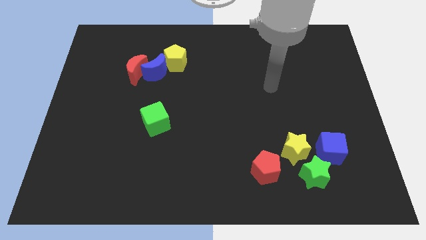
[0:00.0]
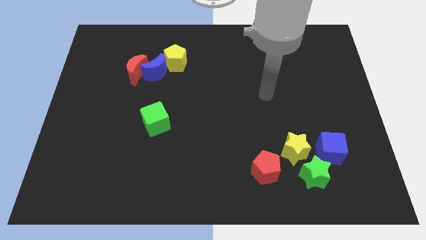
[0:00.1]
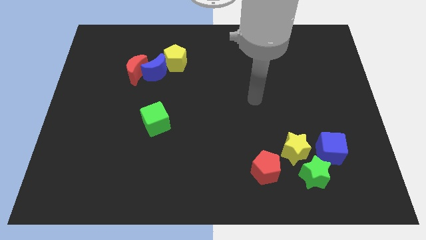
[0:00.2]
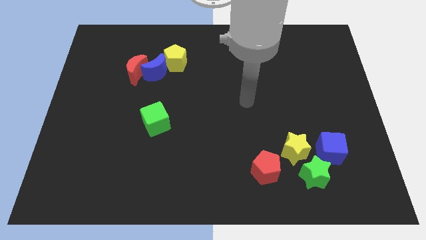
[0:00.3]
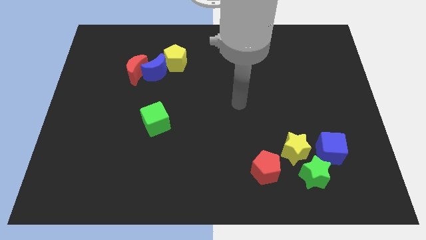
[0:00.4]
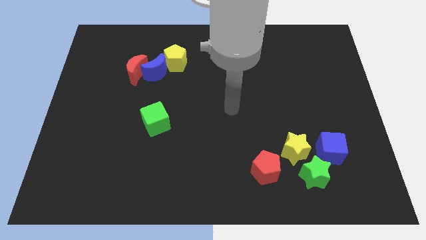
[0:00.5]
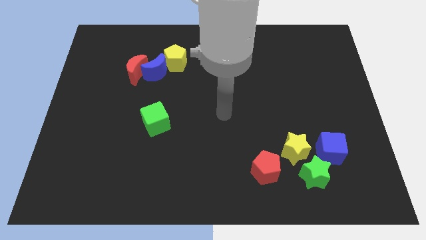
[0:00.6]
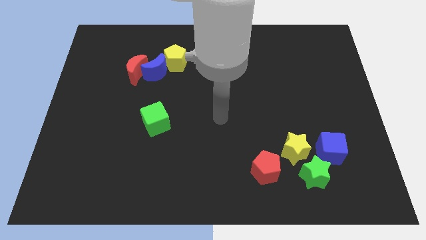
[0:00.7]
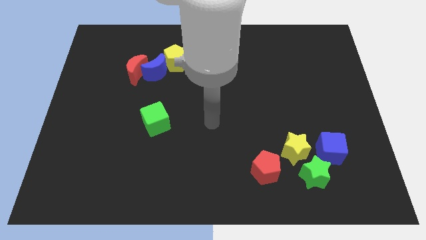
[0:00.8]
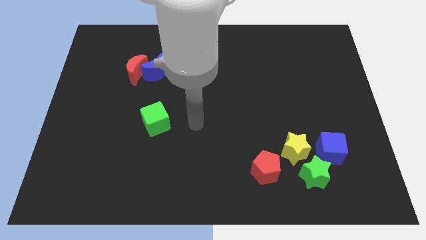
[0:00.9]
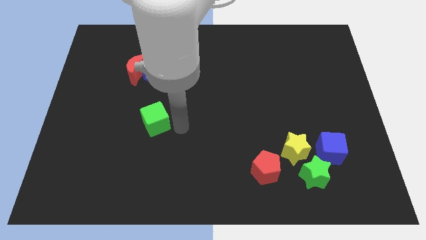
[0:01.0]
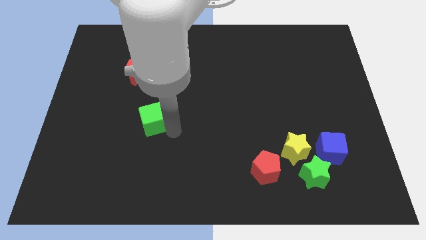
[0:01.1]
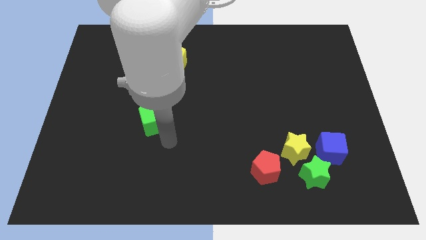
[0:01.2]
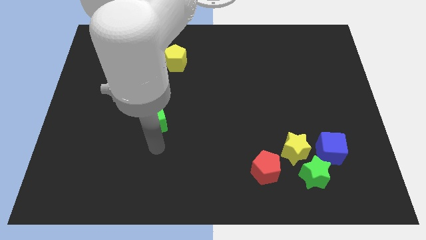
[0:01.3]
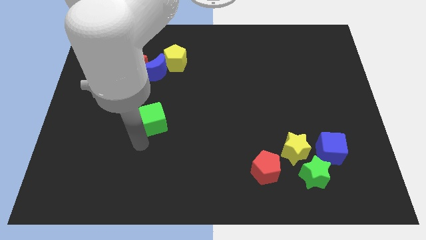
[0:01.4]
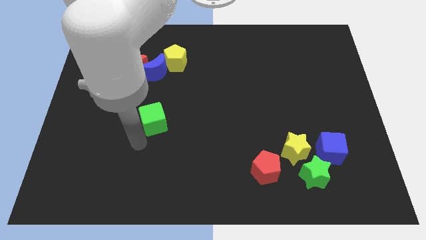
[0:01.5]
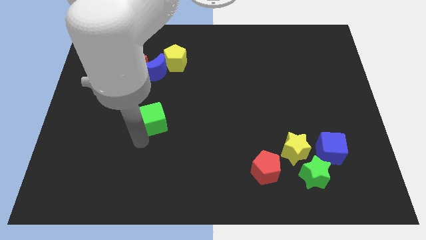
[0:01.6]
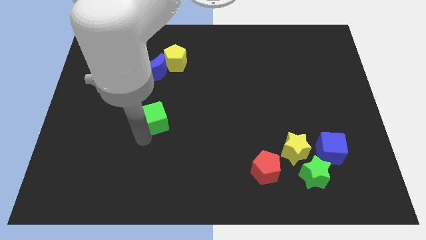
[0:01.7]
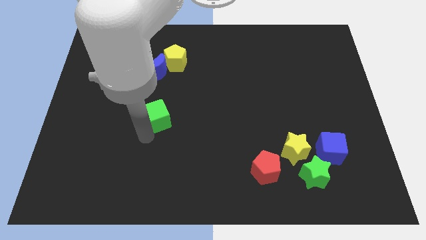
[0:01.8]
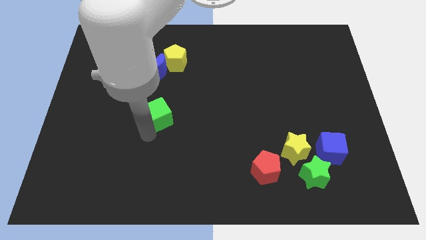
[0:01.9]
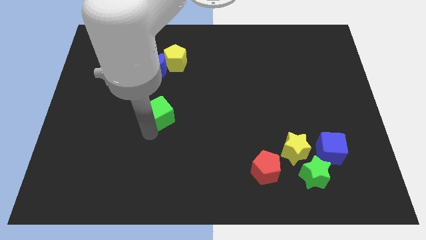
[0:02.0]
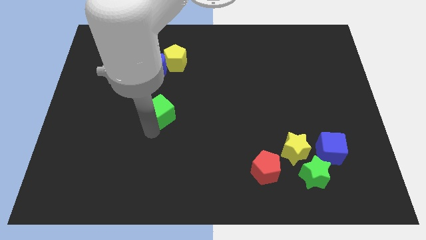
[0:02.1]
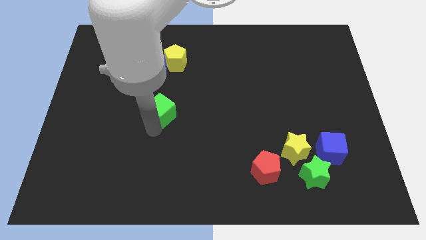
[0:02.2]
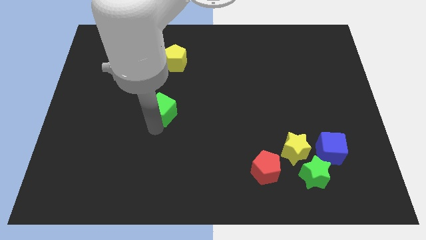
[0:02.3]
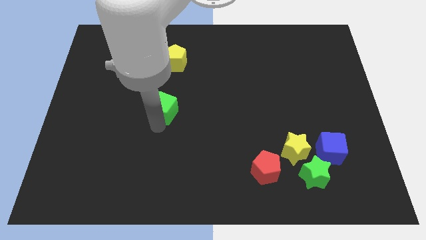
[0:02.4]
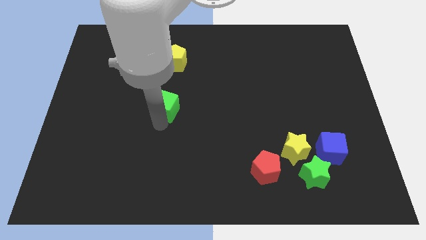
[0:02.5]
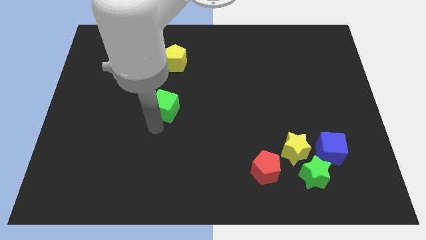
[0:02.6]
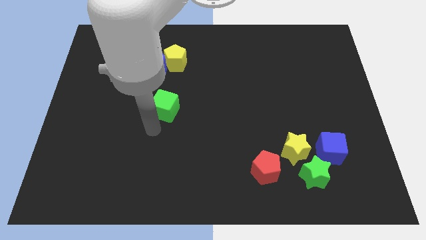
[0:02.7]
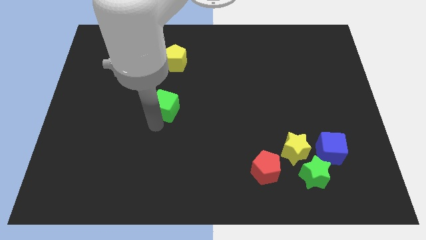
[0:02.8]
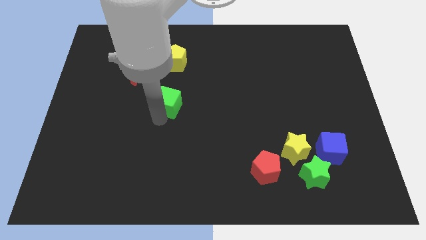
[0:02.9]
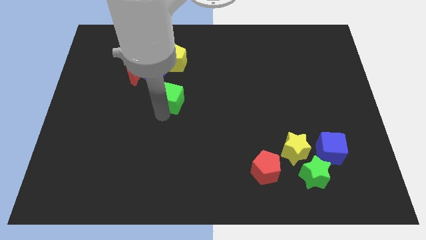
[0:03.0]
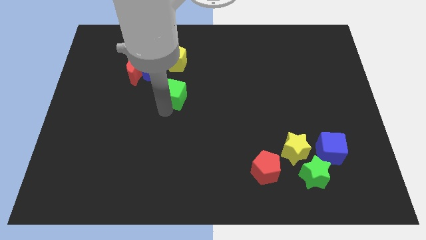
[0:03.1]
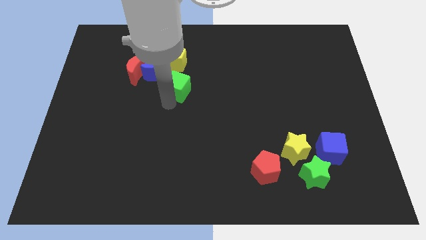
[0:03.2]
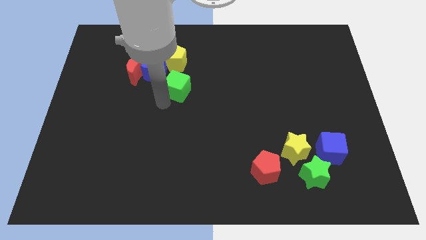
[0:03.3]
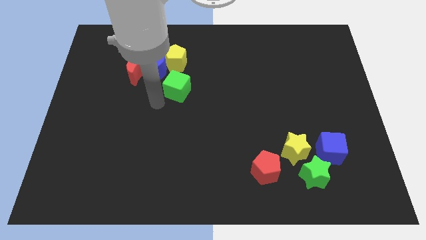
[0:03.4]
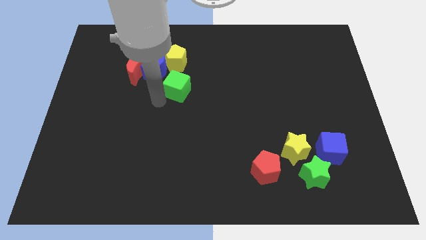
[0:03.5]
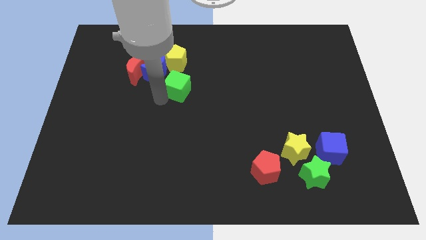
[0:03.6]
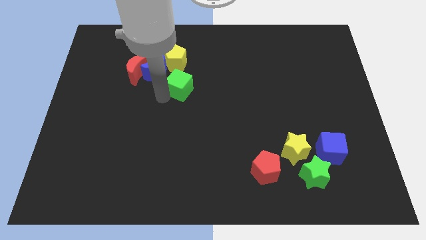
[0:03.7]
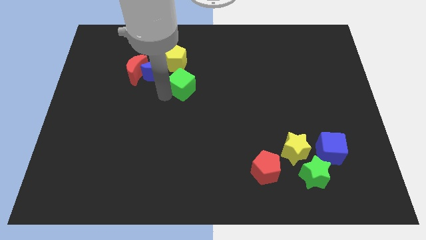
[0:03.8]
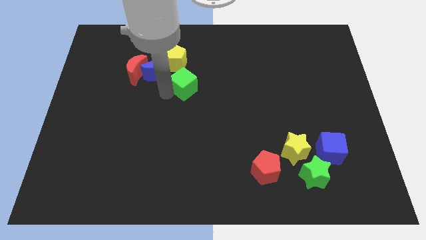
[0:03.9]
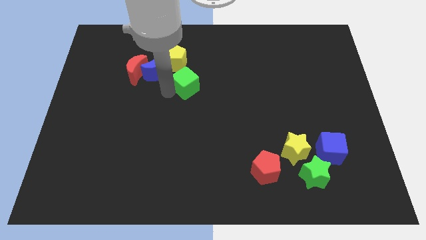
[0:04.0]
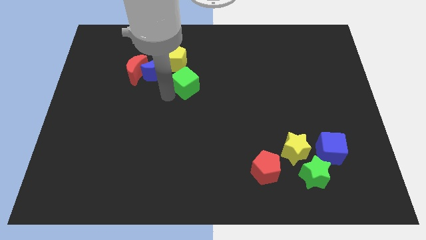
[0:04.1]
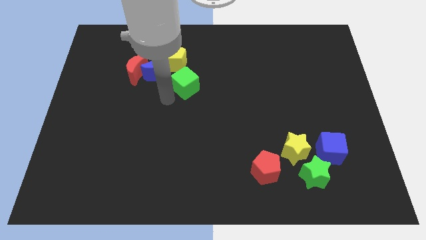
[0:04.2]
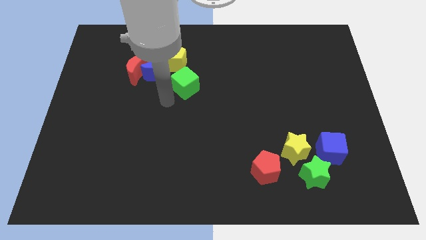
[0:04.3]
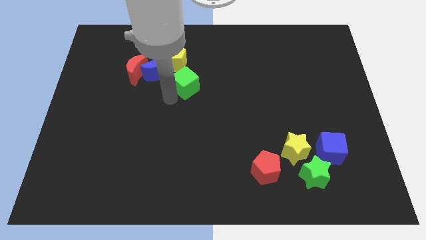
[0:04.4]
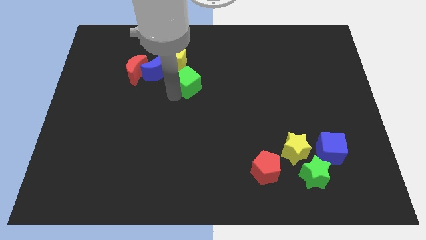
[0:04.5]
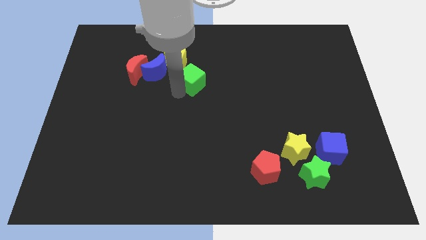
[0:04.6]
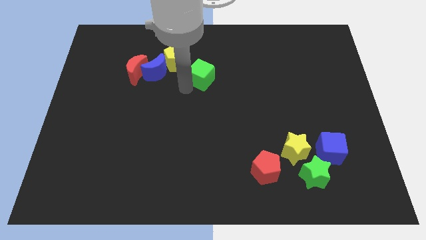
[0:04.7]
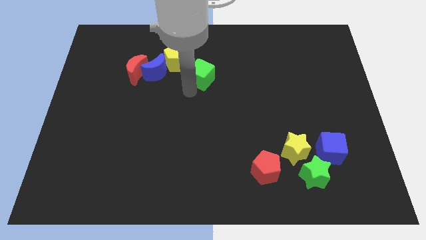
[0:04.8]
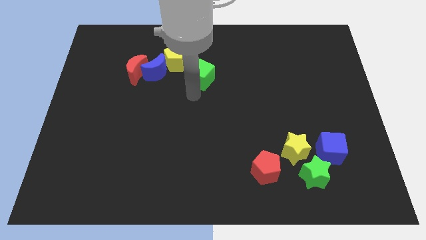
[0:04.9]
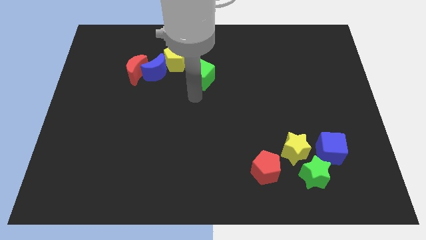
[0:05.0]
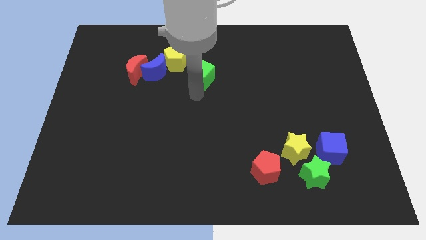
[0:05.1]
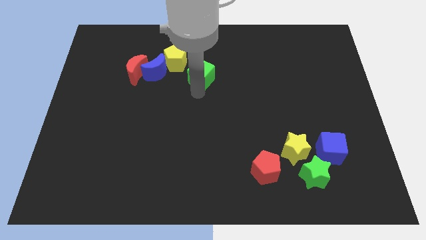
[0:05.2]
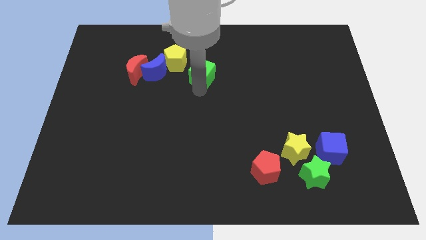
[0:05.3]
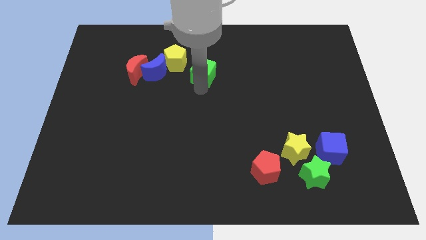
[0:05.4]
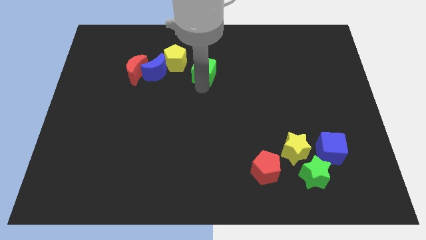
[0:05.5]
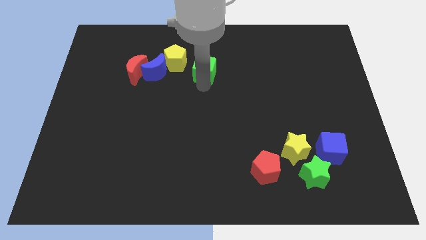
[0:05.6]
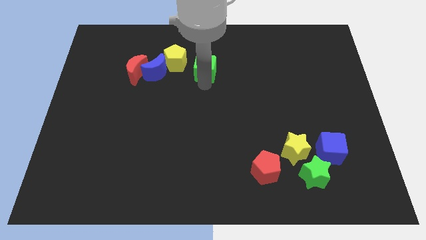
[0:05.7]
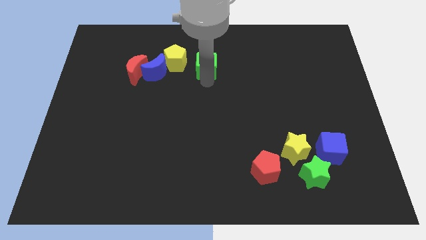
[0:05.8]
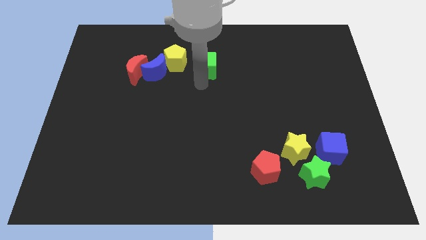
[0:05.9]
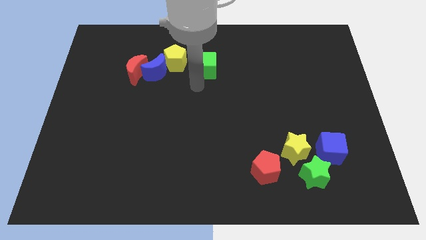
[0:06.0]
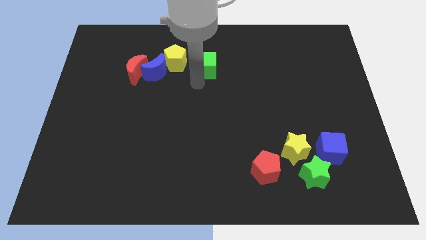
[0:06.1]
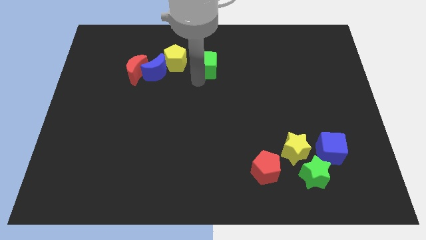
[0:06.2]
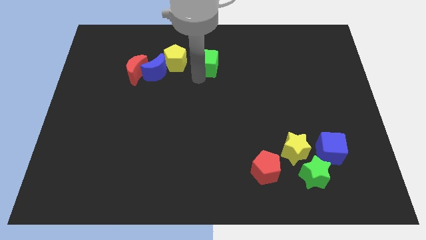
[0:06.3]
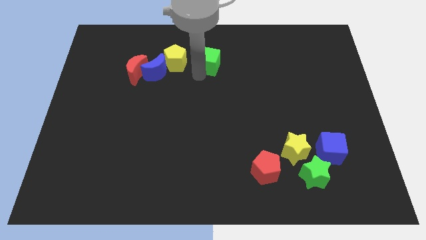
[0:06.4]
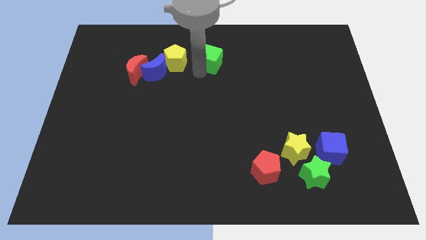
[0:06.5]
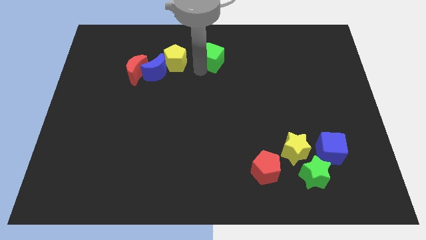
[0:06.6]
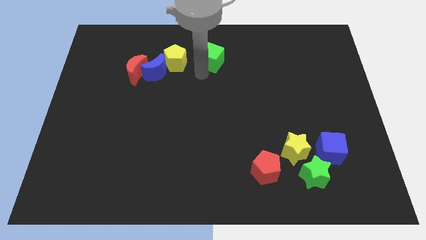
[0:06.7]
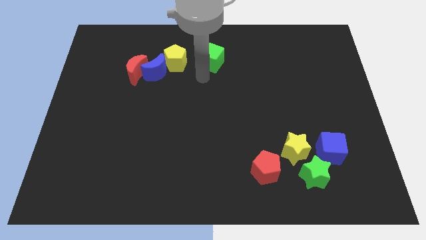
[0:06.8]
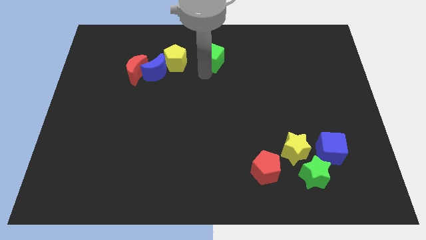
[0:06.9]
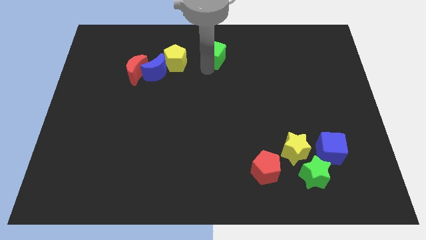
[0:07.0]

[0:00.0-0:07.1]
push the green cube to the top side
